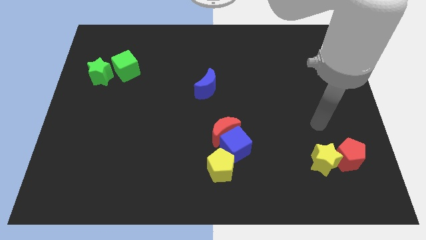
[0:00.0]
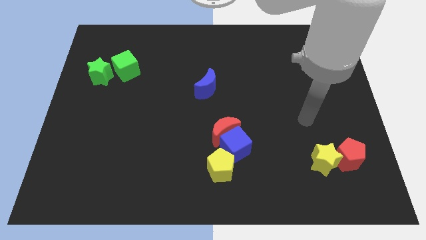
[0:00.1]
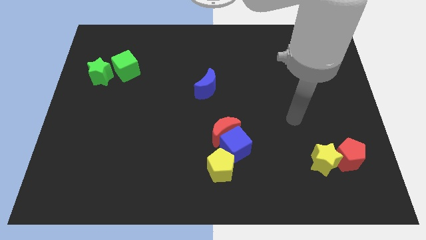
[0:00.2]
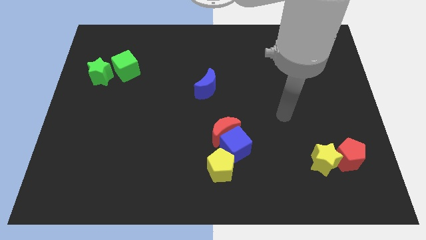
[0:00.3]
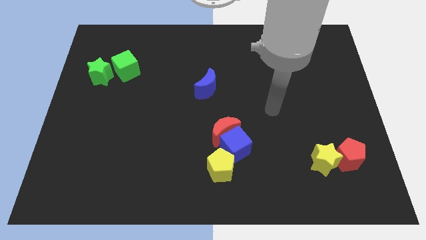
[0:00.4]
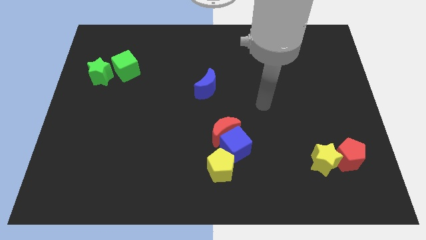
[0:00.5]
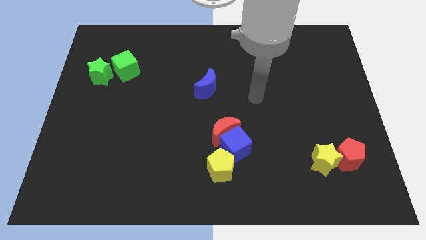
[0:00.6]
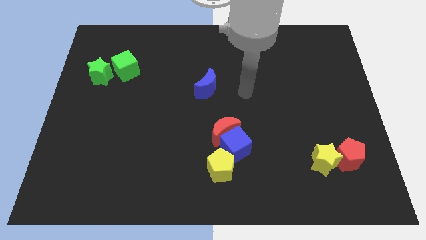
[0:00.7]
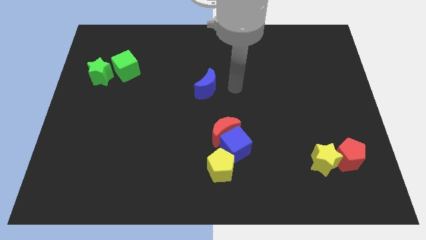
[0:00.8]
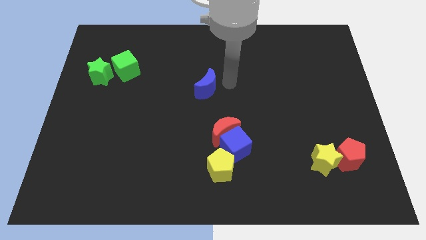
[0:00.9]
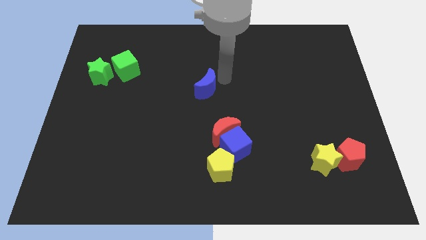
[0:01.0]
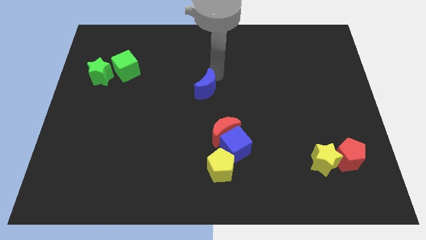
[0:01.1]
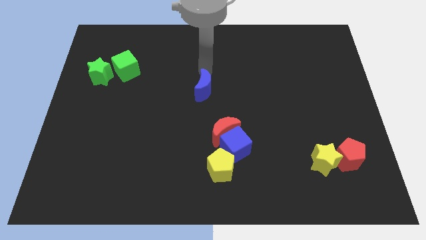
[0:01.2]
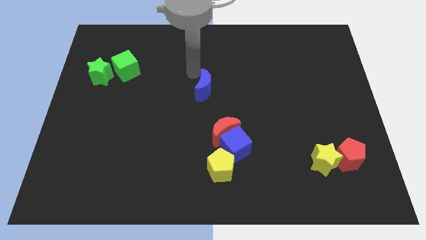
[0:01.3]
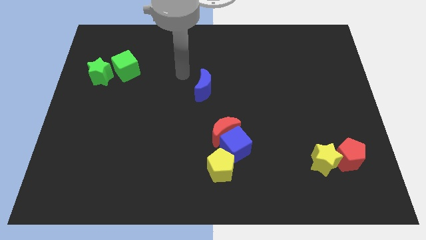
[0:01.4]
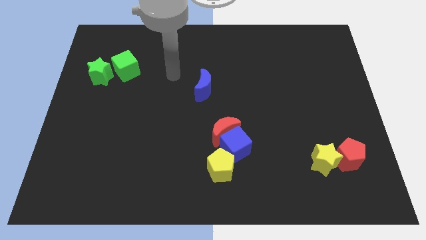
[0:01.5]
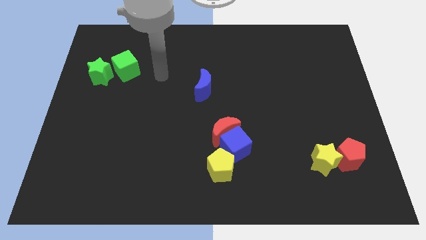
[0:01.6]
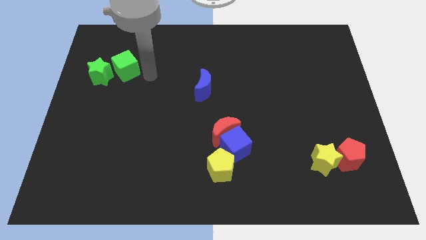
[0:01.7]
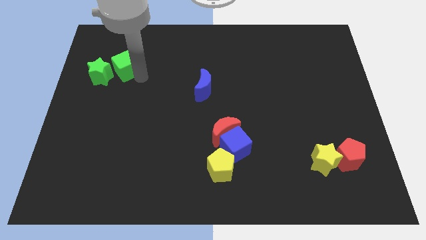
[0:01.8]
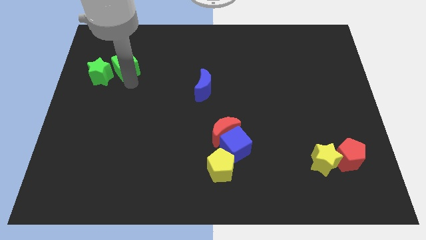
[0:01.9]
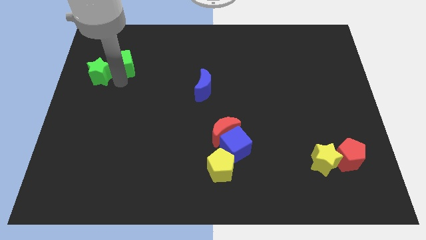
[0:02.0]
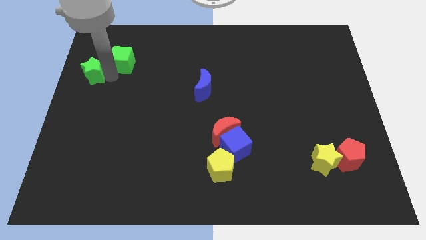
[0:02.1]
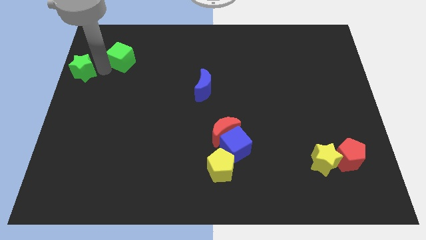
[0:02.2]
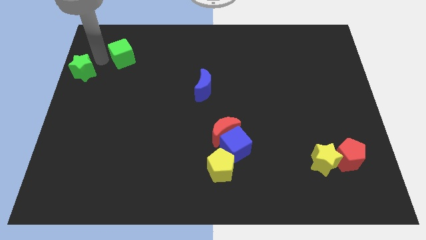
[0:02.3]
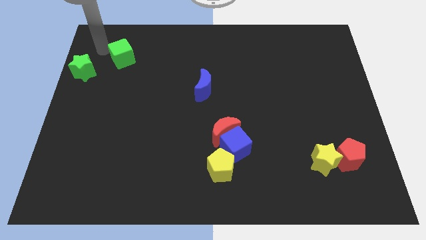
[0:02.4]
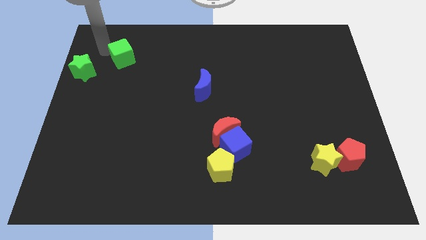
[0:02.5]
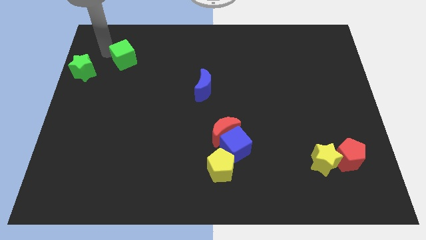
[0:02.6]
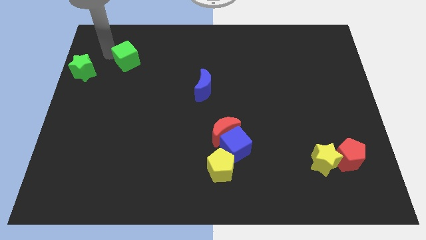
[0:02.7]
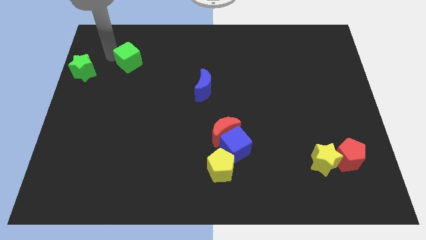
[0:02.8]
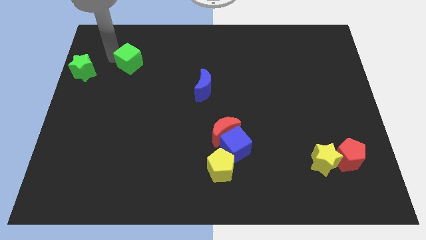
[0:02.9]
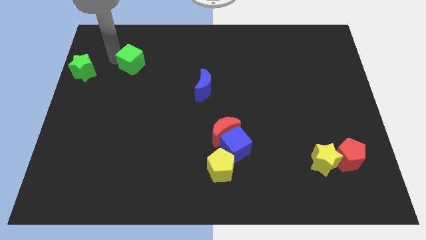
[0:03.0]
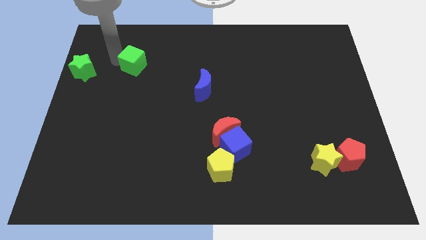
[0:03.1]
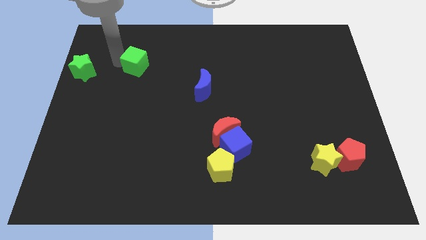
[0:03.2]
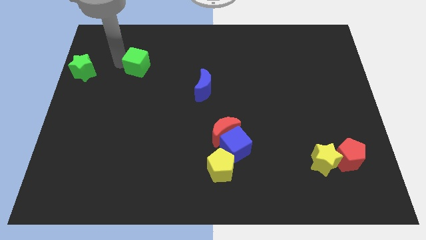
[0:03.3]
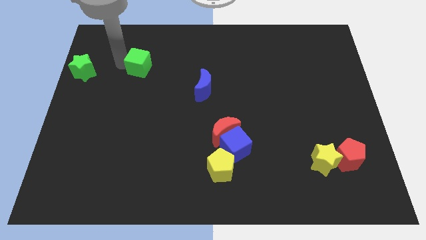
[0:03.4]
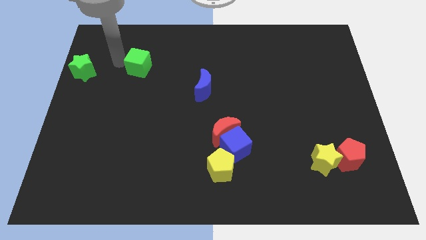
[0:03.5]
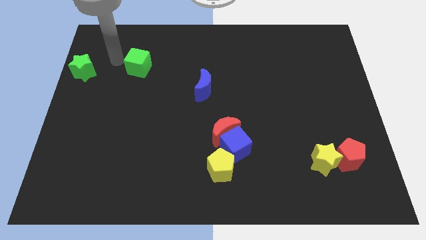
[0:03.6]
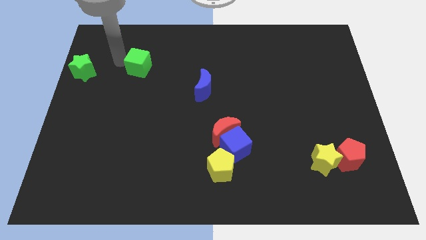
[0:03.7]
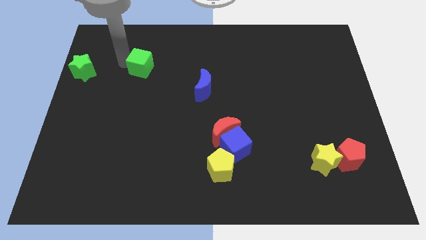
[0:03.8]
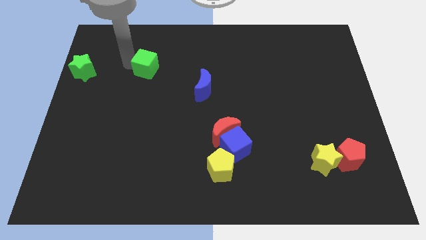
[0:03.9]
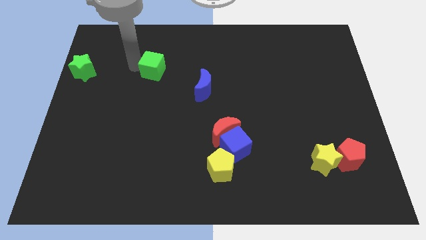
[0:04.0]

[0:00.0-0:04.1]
slide the green cube slightly right

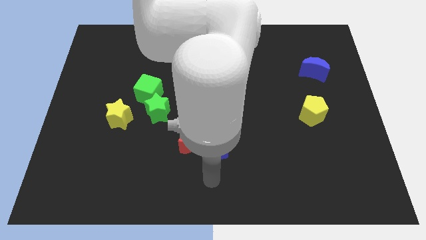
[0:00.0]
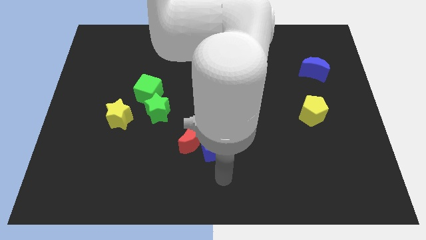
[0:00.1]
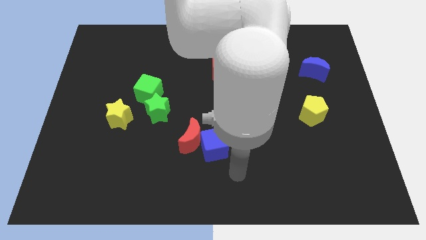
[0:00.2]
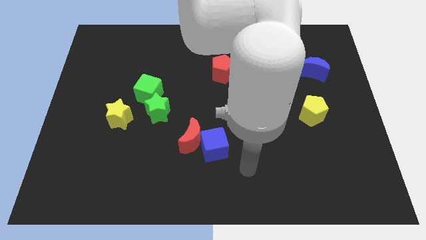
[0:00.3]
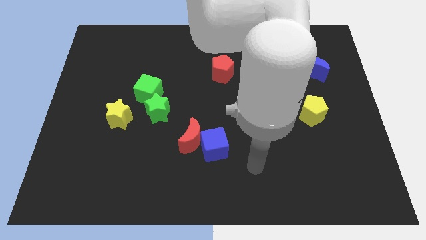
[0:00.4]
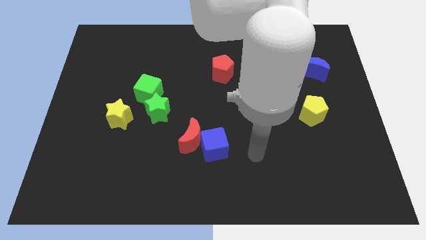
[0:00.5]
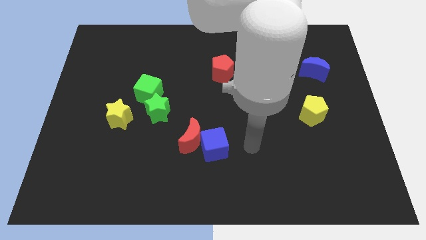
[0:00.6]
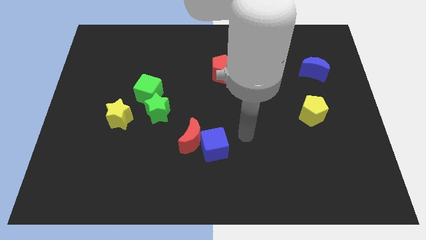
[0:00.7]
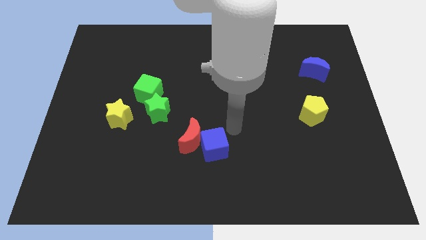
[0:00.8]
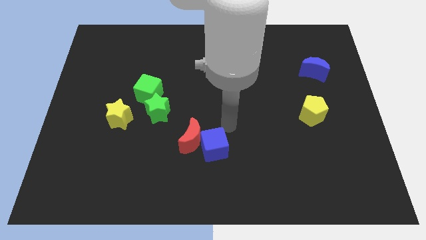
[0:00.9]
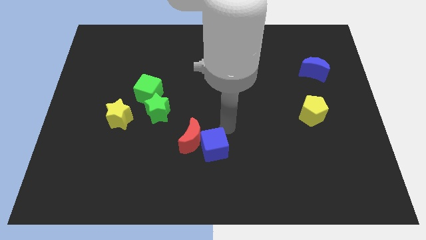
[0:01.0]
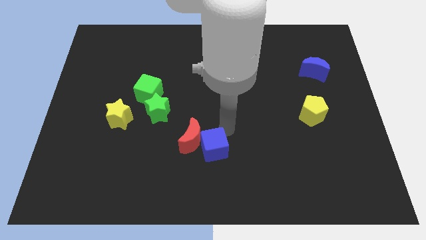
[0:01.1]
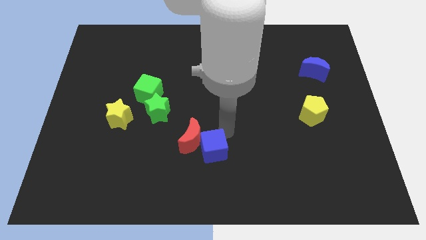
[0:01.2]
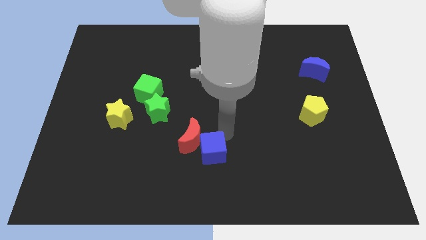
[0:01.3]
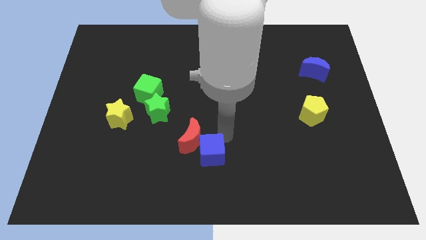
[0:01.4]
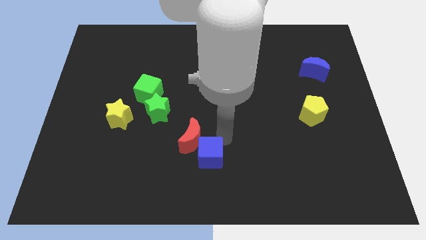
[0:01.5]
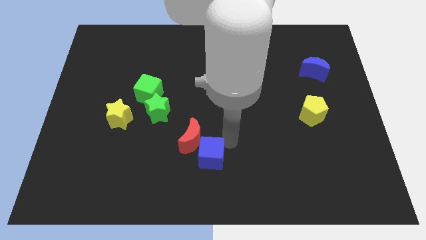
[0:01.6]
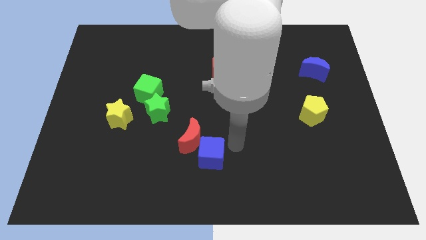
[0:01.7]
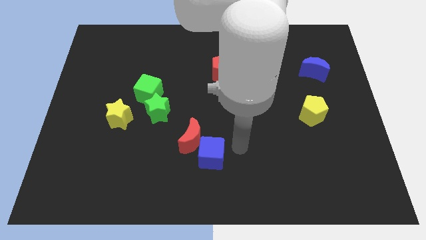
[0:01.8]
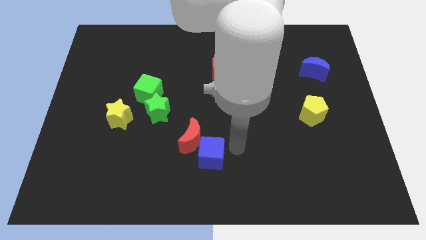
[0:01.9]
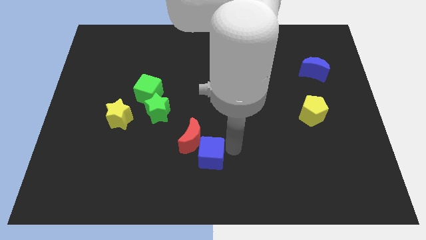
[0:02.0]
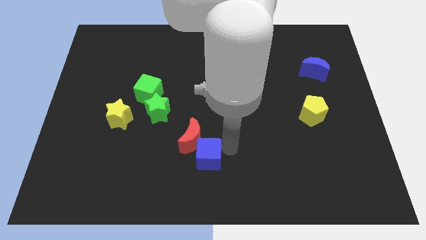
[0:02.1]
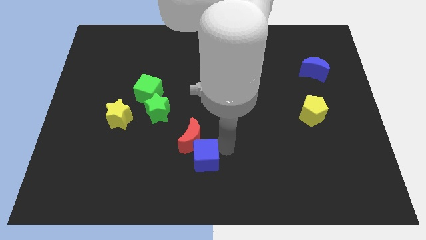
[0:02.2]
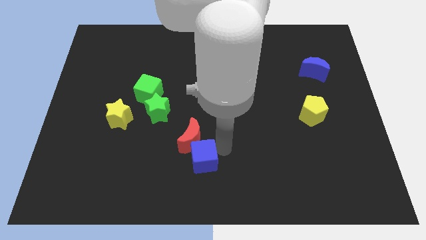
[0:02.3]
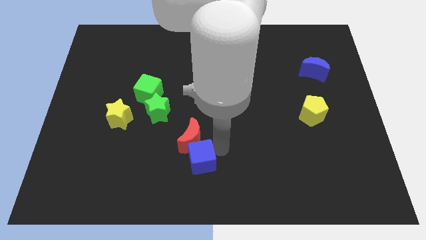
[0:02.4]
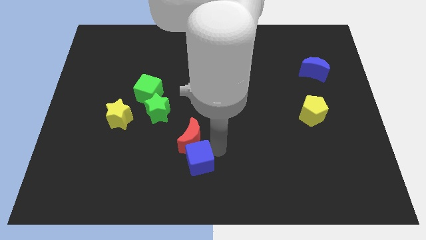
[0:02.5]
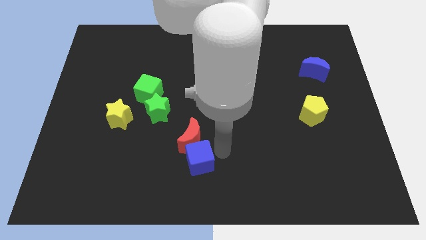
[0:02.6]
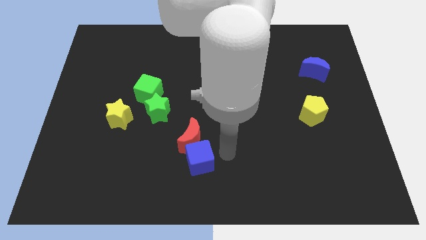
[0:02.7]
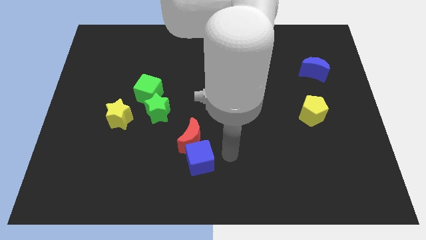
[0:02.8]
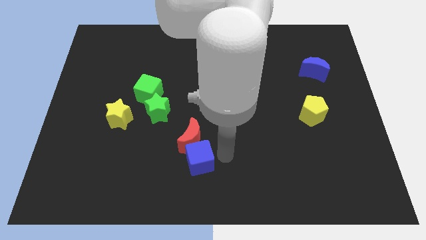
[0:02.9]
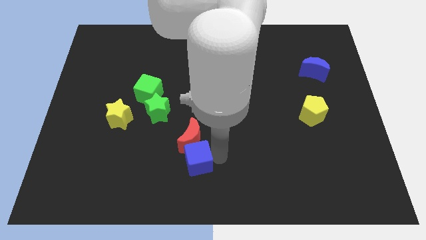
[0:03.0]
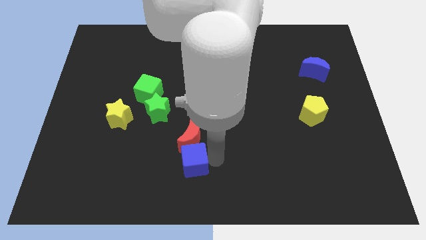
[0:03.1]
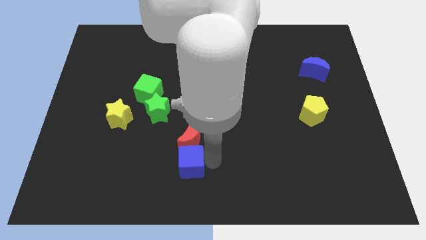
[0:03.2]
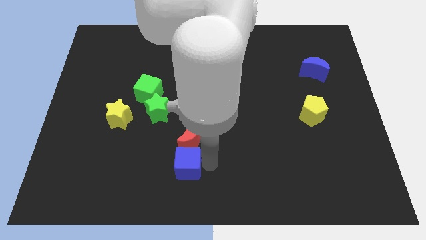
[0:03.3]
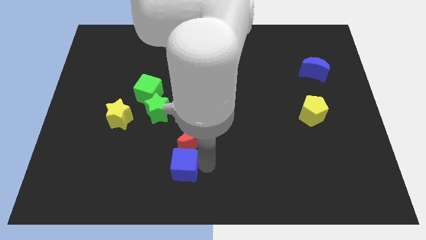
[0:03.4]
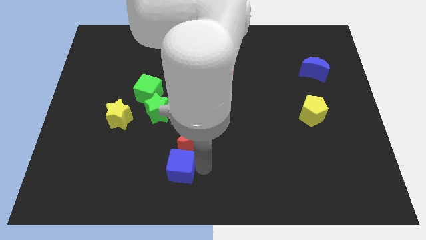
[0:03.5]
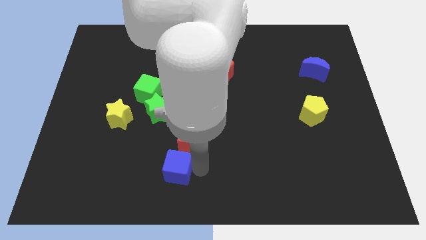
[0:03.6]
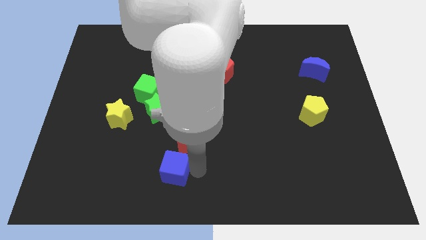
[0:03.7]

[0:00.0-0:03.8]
move the blue cube left a little

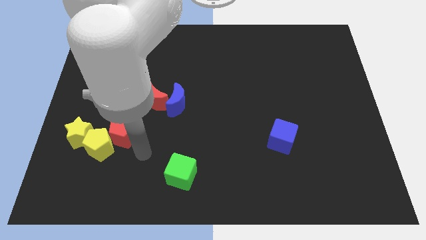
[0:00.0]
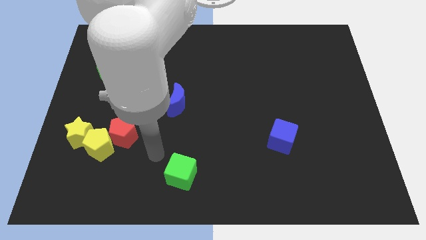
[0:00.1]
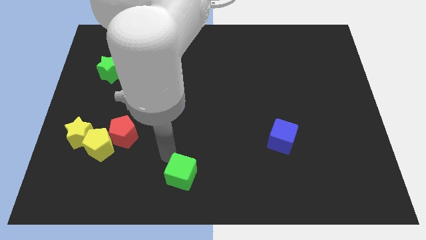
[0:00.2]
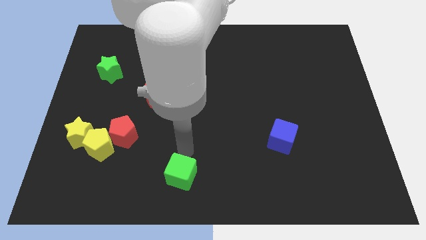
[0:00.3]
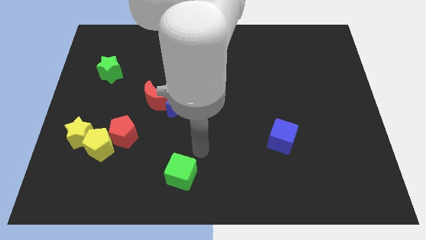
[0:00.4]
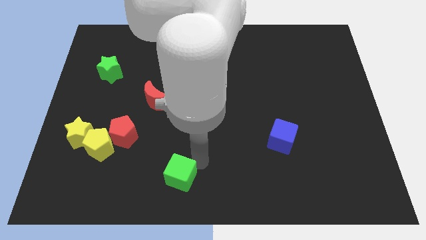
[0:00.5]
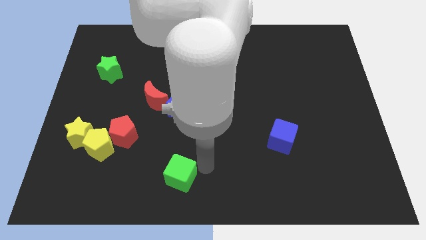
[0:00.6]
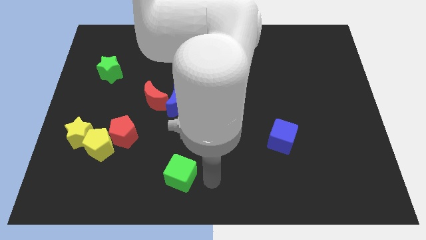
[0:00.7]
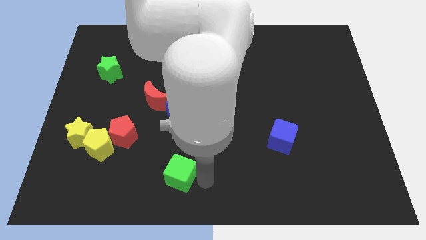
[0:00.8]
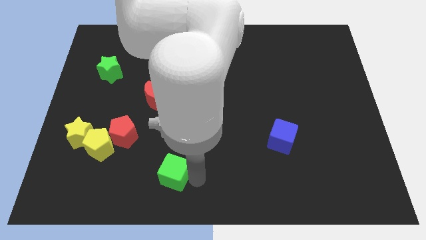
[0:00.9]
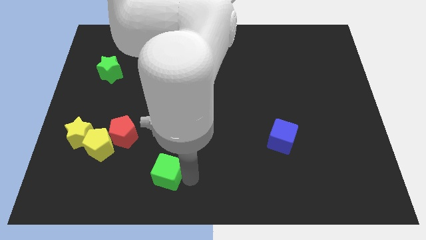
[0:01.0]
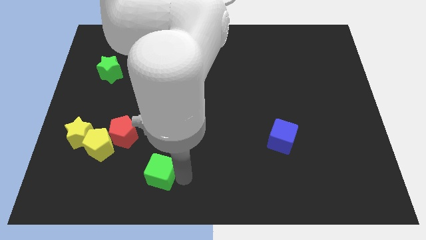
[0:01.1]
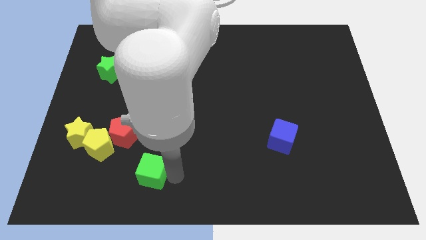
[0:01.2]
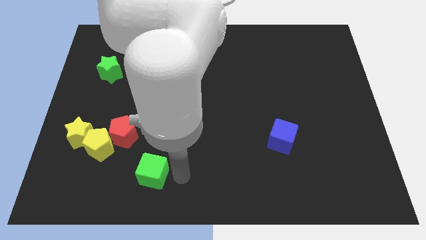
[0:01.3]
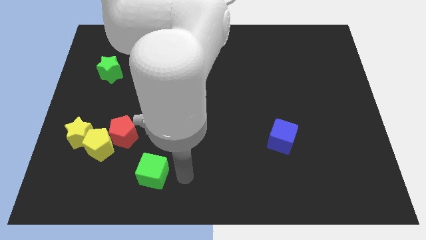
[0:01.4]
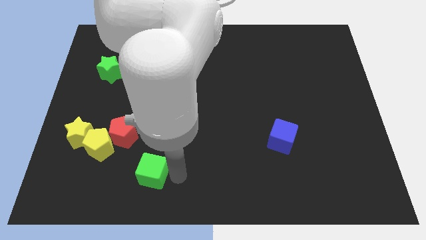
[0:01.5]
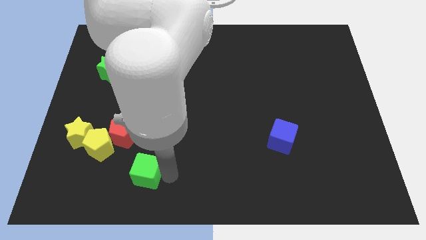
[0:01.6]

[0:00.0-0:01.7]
slightly move the green cube to the left
